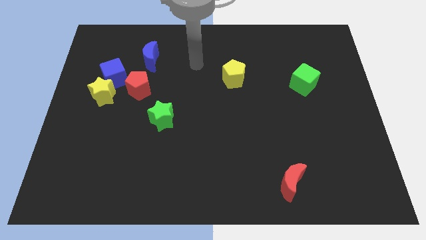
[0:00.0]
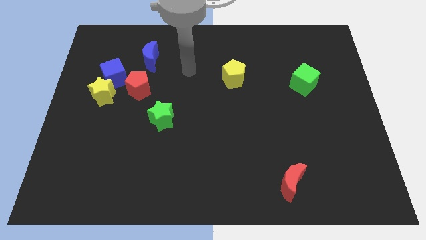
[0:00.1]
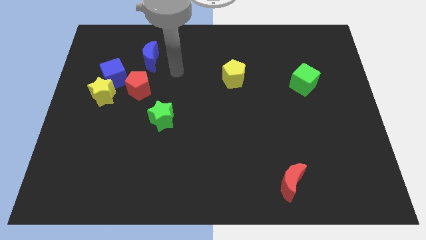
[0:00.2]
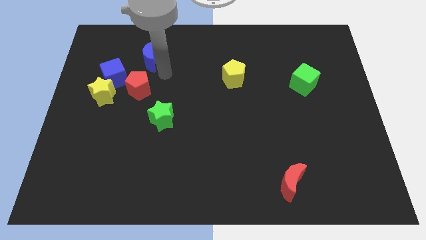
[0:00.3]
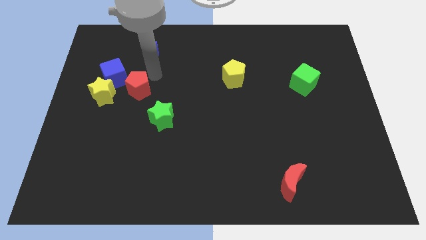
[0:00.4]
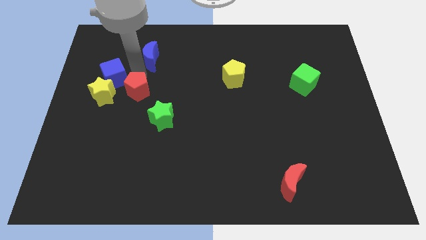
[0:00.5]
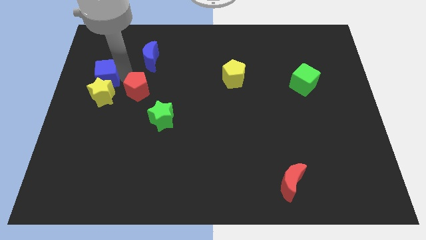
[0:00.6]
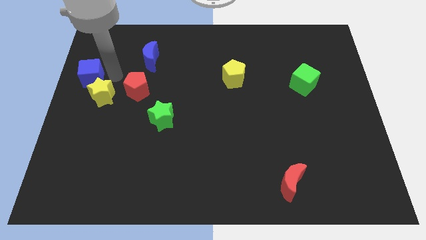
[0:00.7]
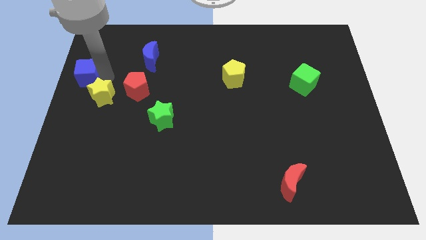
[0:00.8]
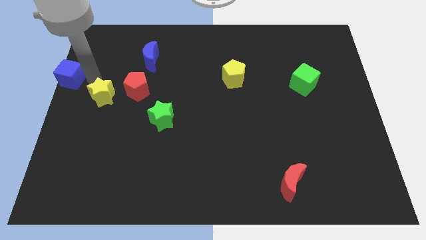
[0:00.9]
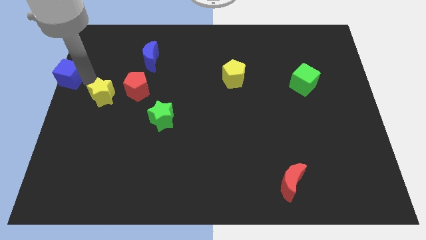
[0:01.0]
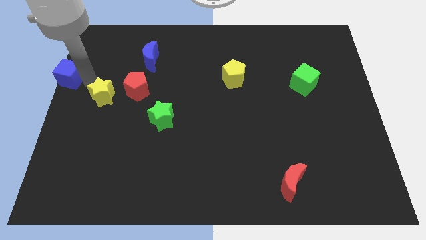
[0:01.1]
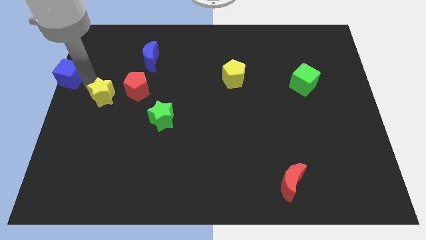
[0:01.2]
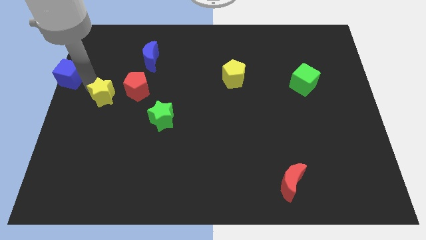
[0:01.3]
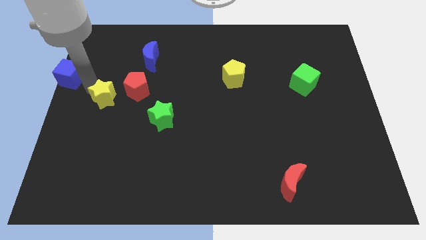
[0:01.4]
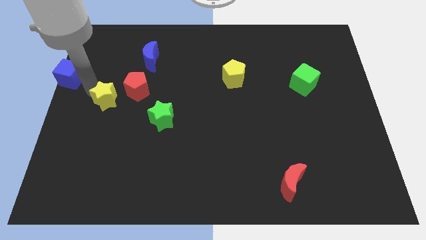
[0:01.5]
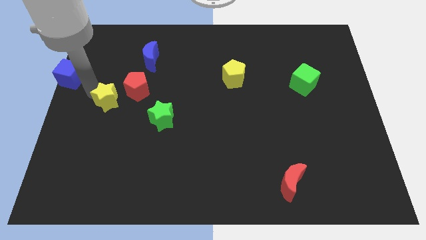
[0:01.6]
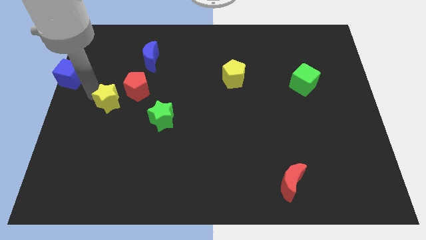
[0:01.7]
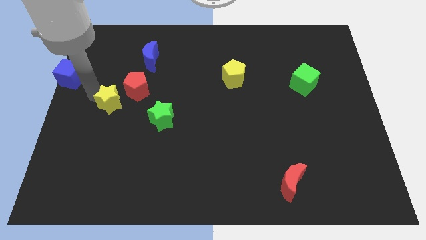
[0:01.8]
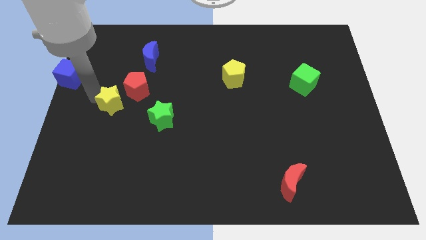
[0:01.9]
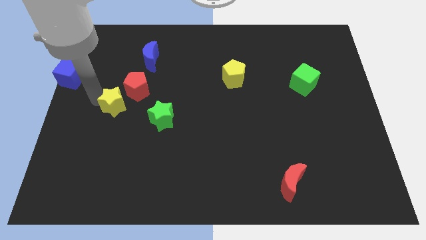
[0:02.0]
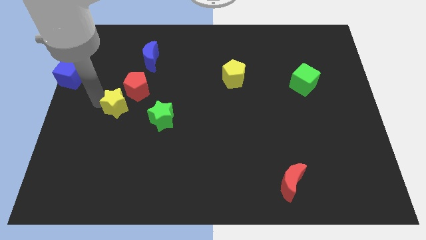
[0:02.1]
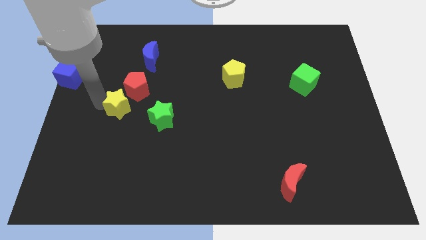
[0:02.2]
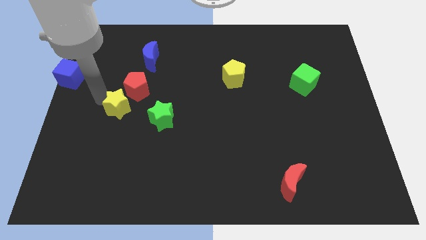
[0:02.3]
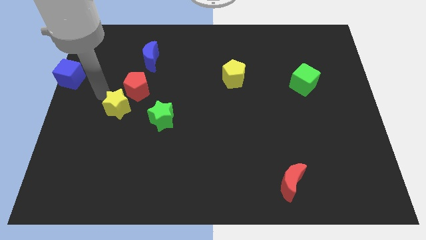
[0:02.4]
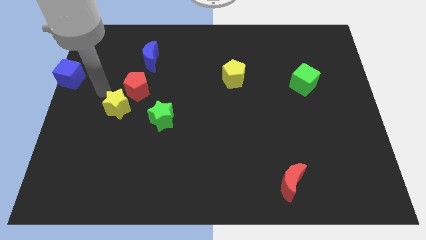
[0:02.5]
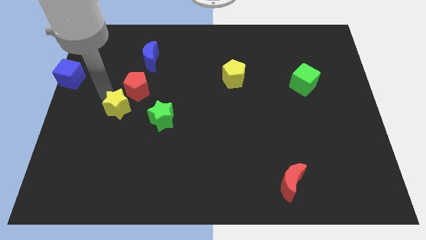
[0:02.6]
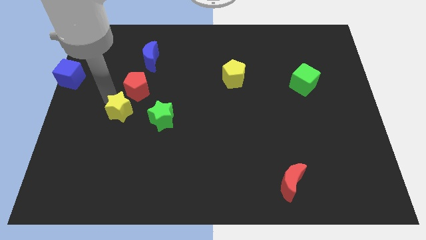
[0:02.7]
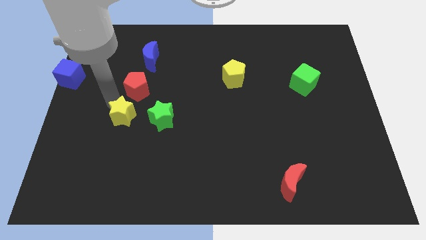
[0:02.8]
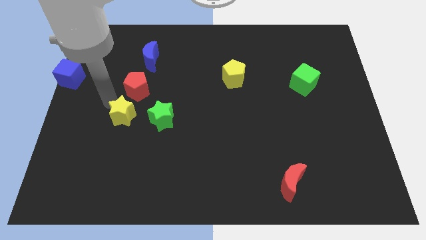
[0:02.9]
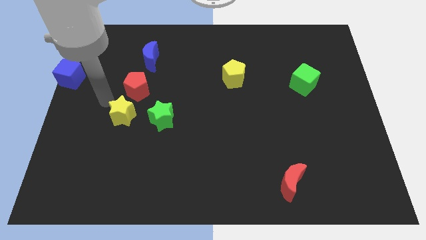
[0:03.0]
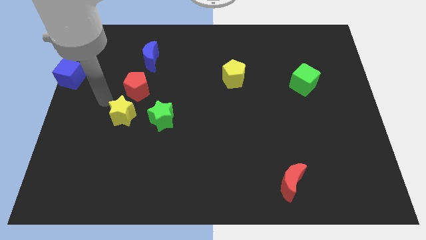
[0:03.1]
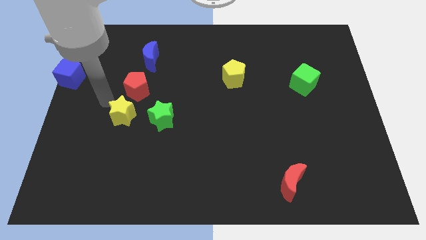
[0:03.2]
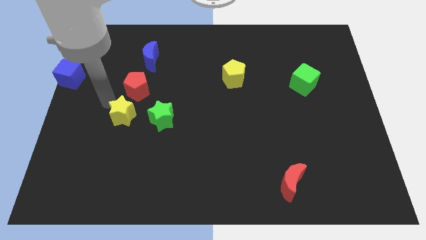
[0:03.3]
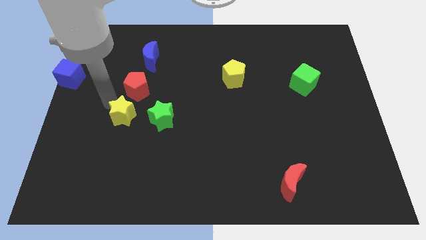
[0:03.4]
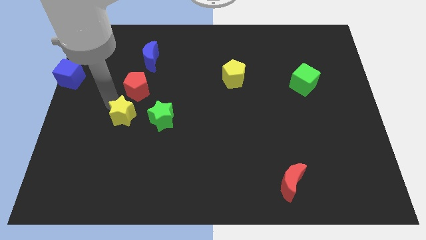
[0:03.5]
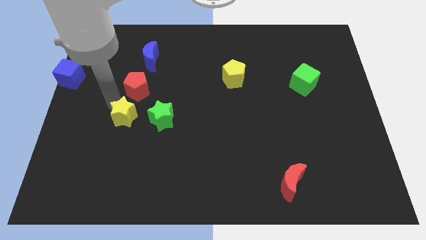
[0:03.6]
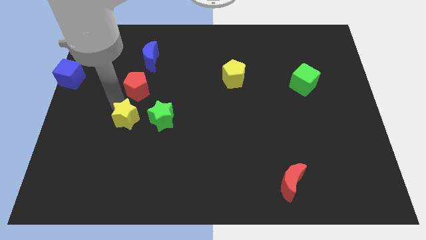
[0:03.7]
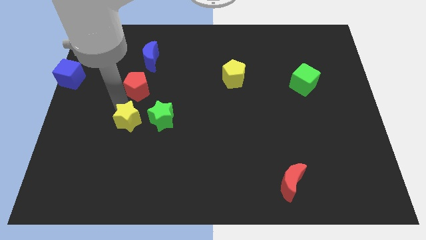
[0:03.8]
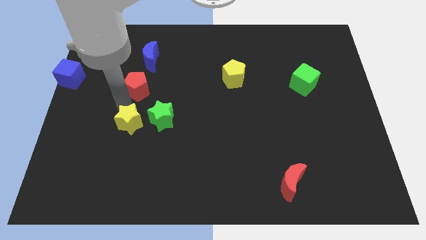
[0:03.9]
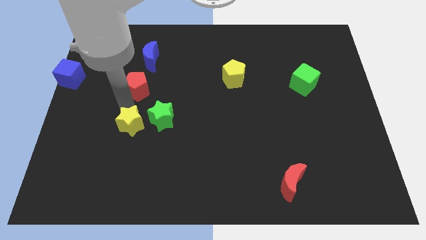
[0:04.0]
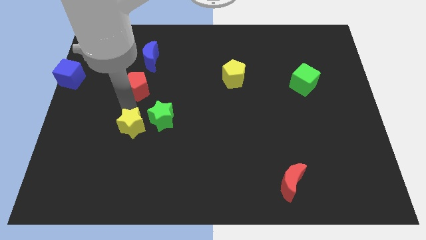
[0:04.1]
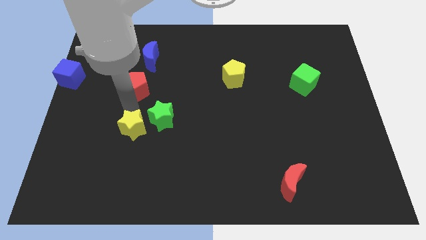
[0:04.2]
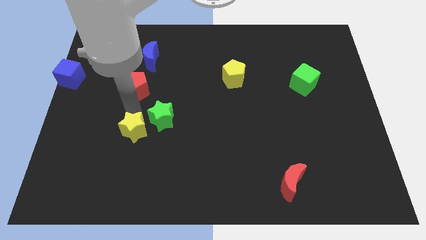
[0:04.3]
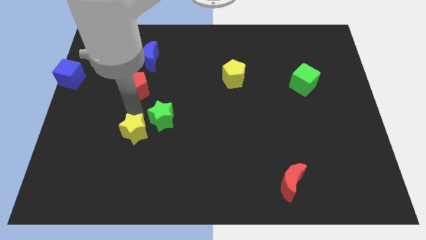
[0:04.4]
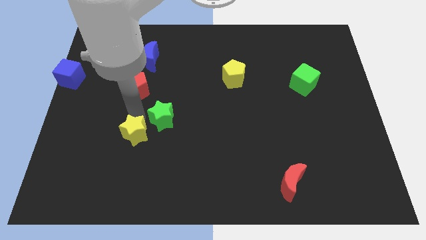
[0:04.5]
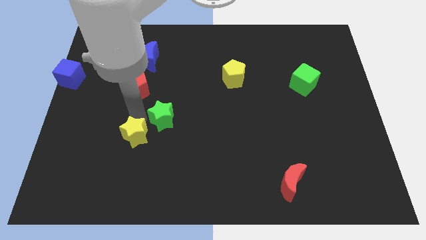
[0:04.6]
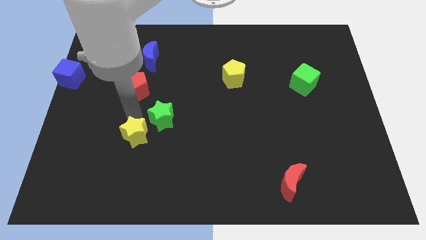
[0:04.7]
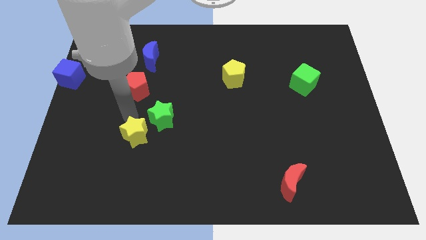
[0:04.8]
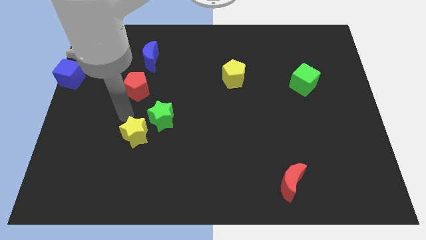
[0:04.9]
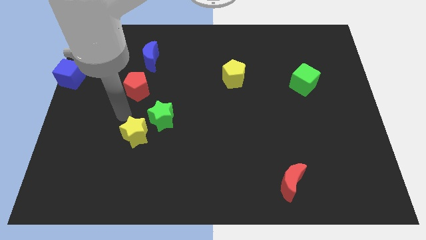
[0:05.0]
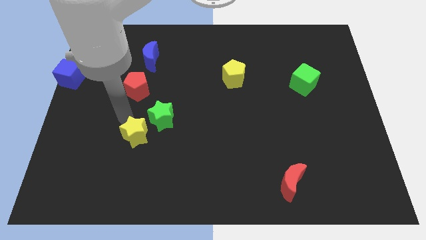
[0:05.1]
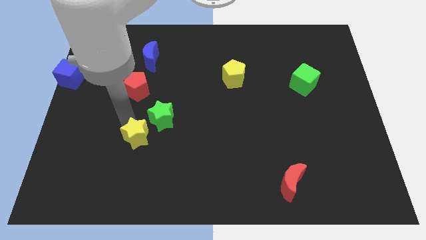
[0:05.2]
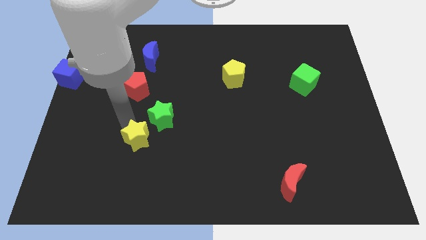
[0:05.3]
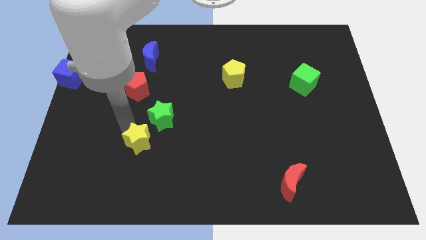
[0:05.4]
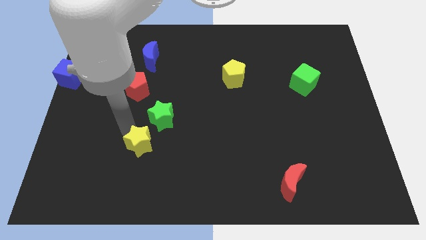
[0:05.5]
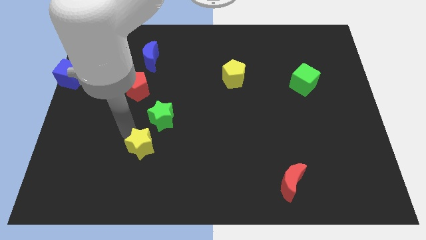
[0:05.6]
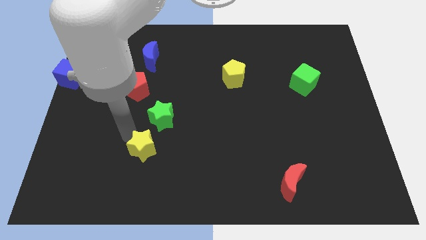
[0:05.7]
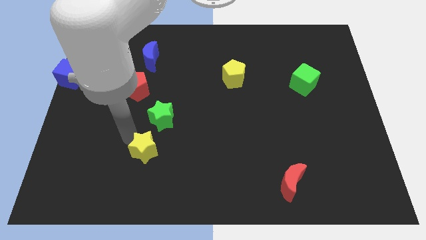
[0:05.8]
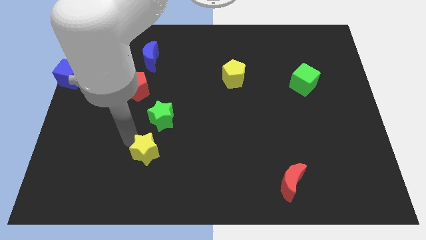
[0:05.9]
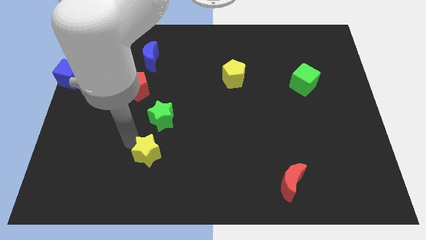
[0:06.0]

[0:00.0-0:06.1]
push the yellow star downwards and right

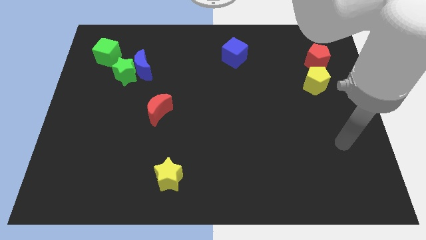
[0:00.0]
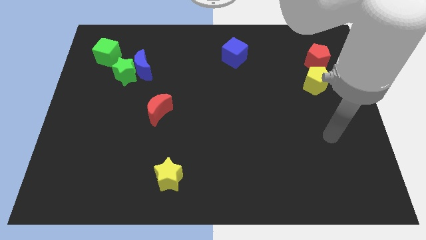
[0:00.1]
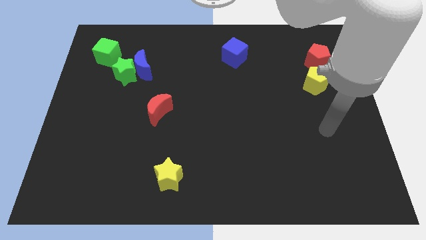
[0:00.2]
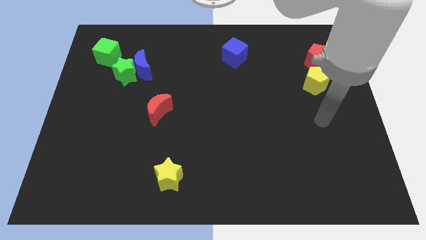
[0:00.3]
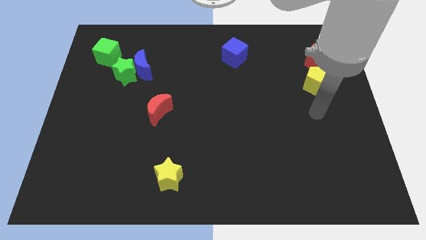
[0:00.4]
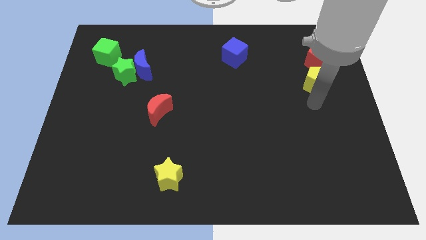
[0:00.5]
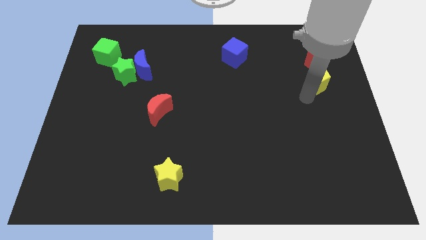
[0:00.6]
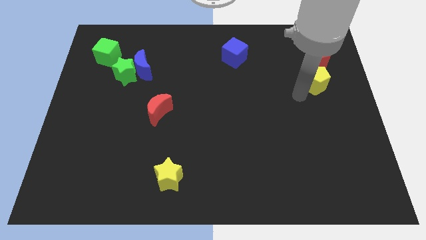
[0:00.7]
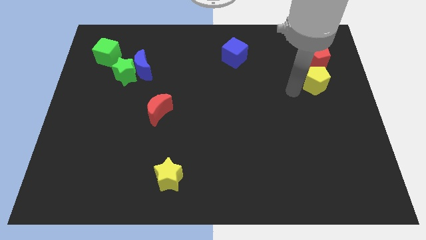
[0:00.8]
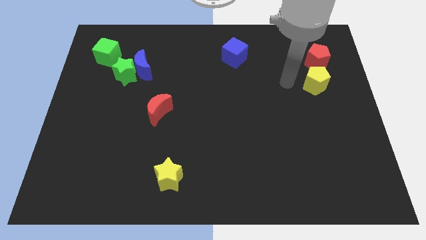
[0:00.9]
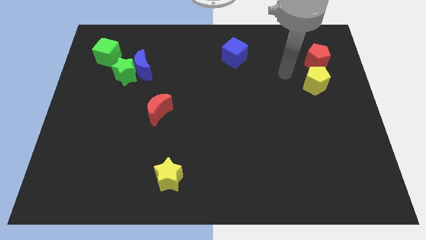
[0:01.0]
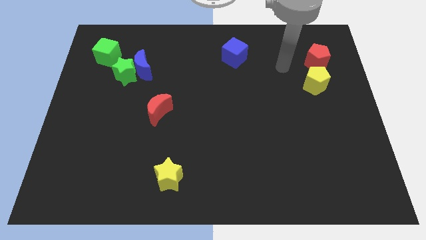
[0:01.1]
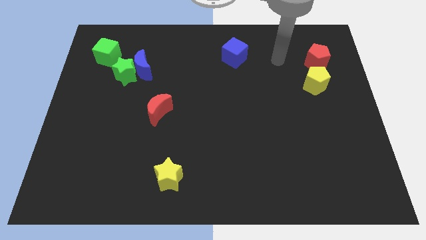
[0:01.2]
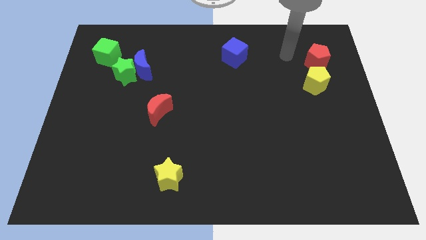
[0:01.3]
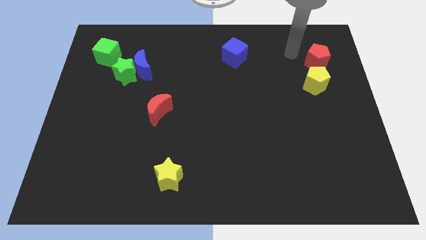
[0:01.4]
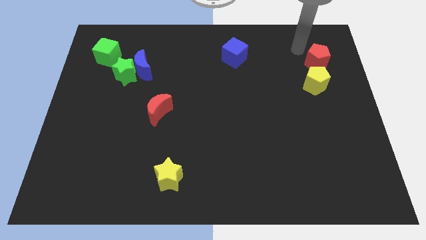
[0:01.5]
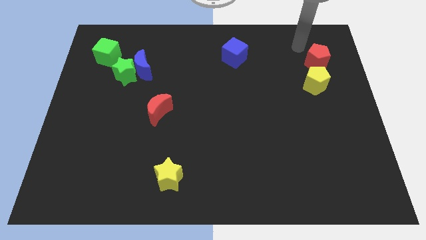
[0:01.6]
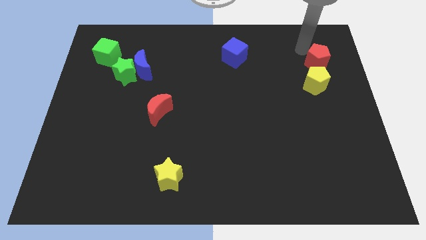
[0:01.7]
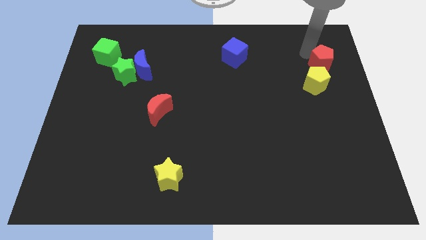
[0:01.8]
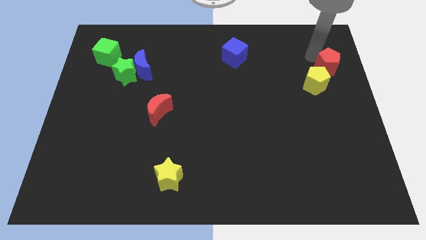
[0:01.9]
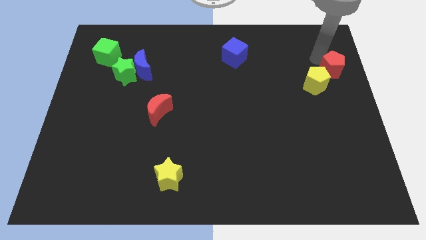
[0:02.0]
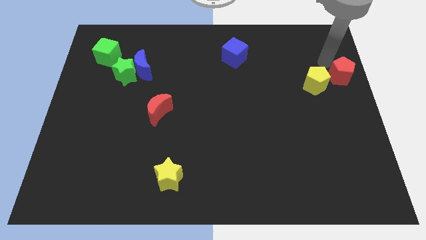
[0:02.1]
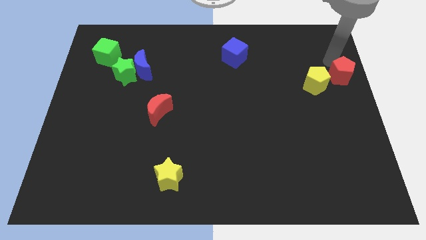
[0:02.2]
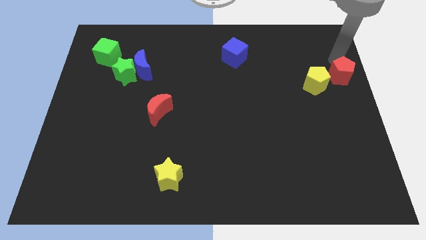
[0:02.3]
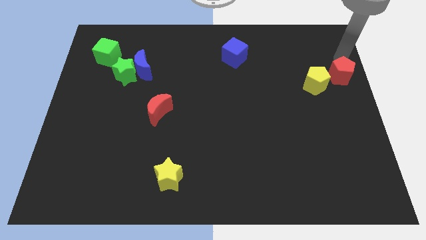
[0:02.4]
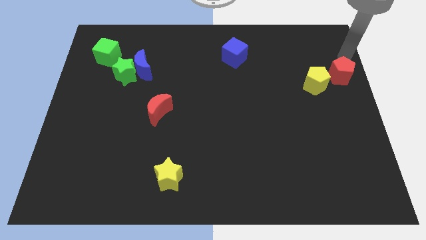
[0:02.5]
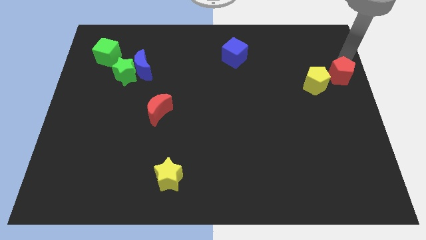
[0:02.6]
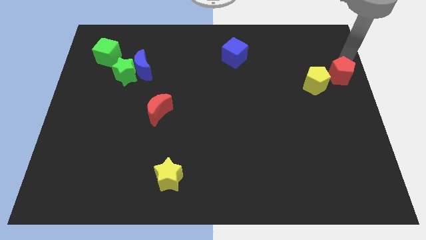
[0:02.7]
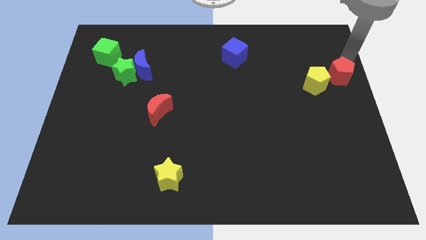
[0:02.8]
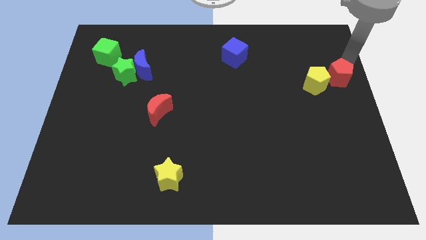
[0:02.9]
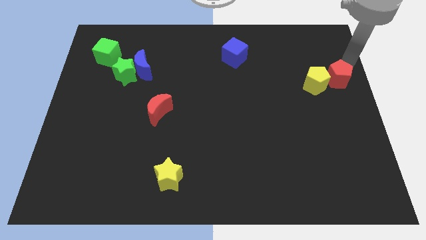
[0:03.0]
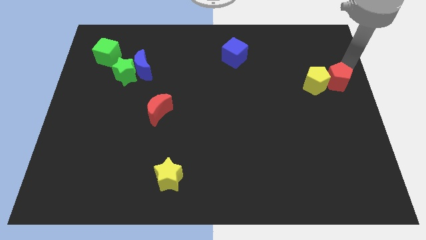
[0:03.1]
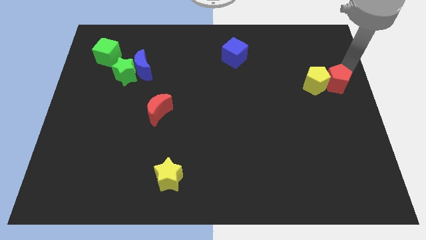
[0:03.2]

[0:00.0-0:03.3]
slightly slide the red pentagon down
